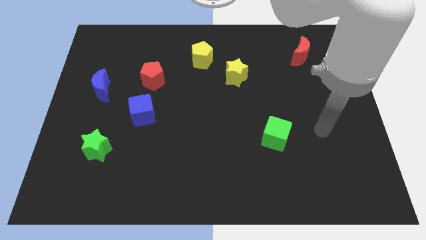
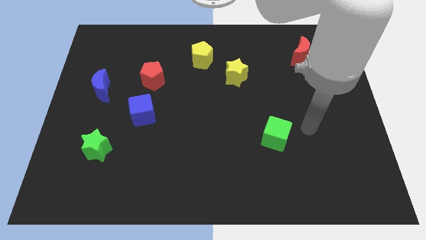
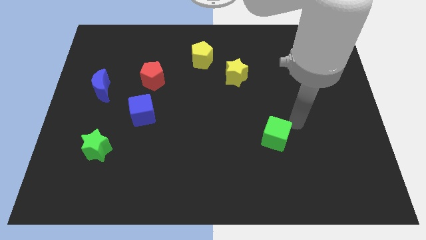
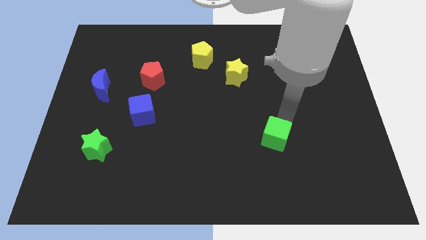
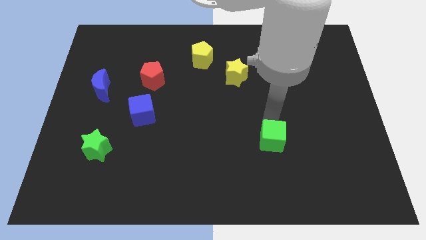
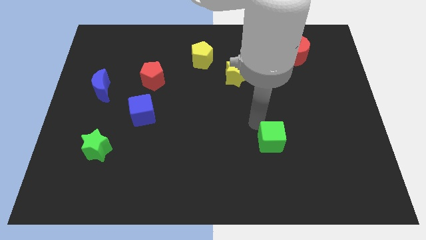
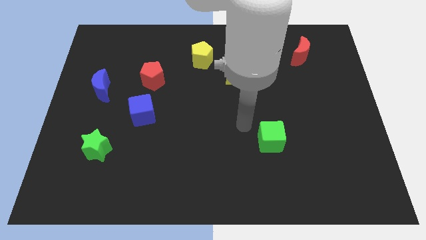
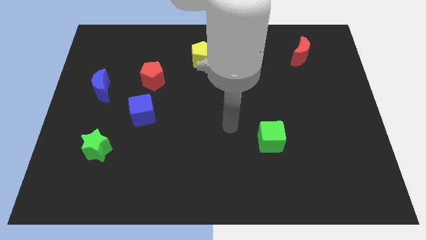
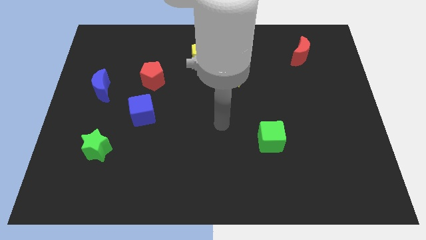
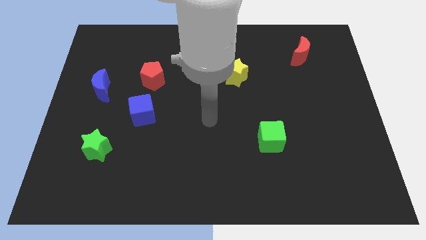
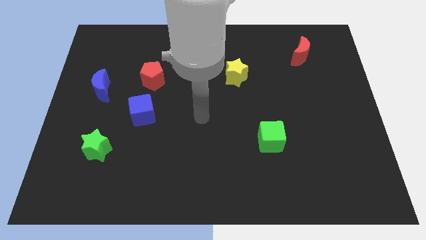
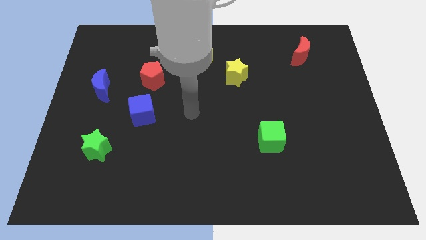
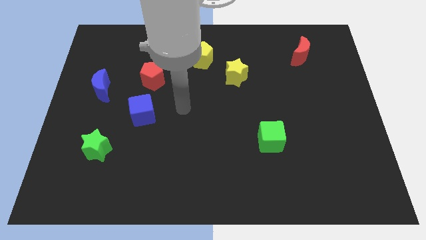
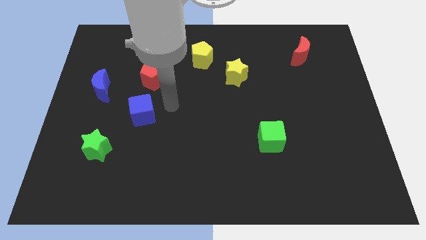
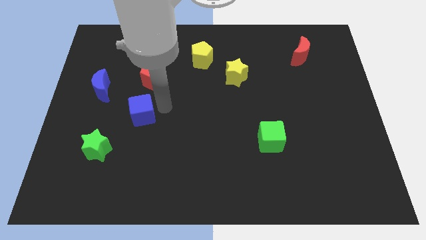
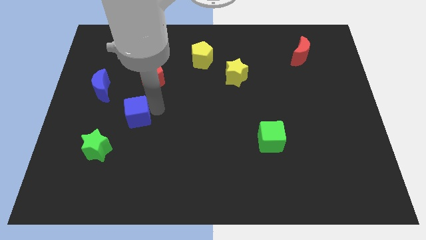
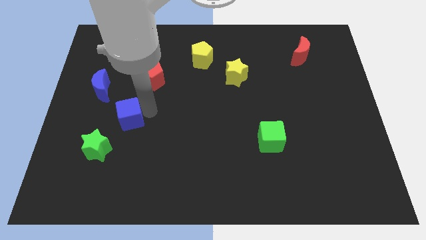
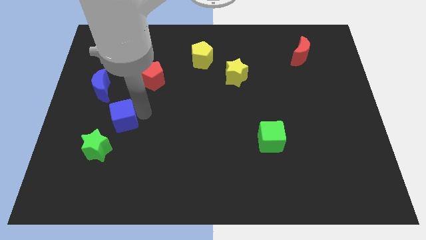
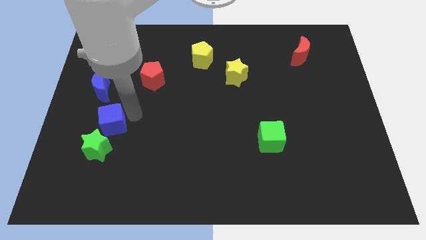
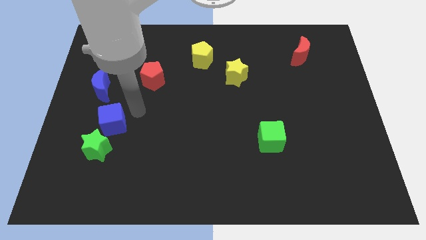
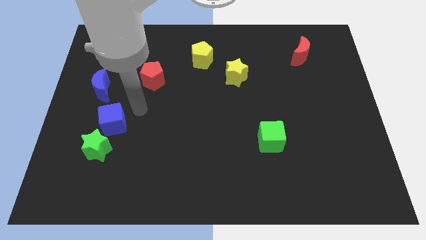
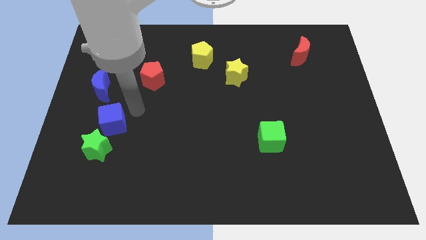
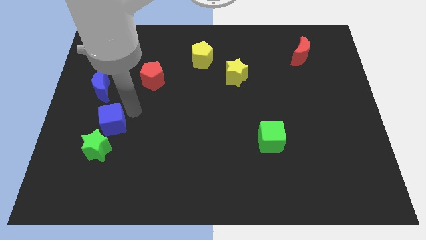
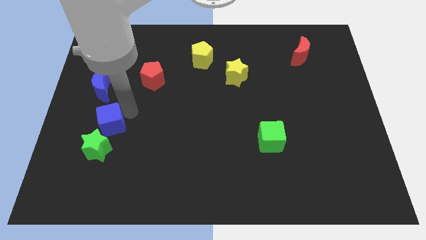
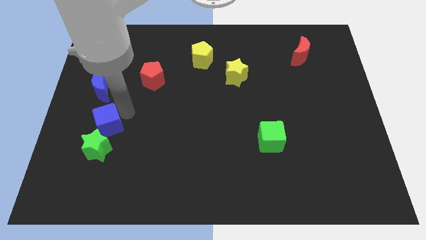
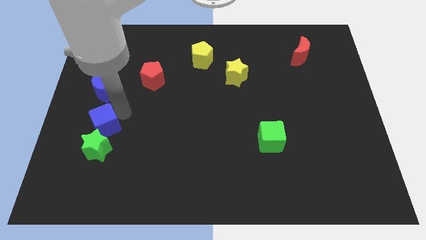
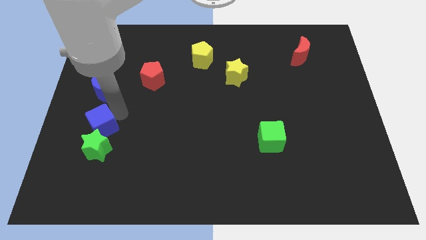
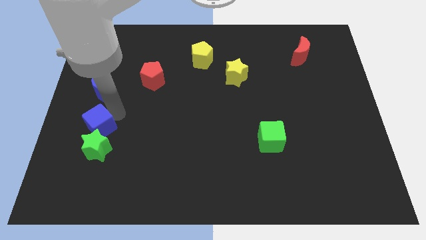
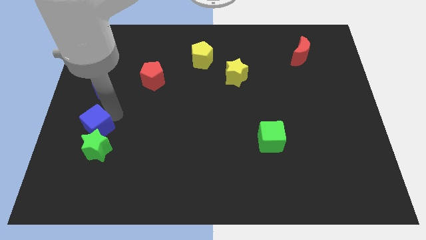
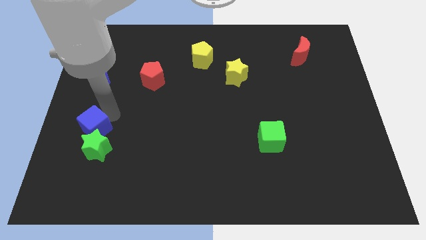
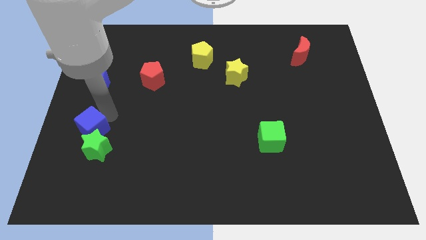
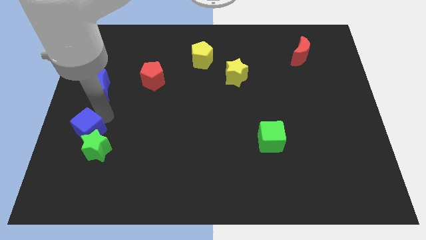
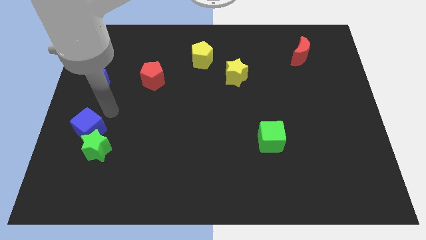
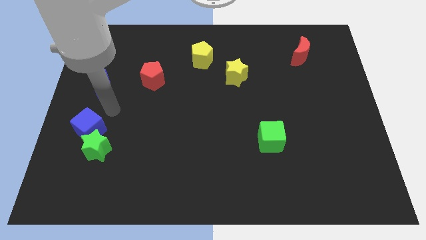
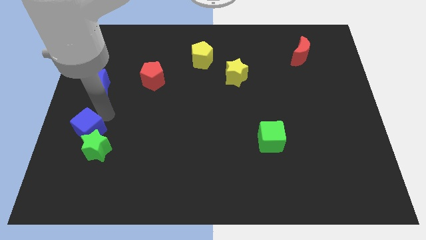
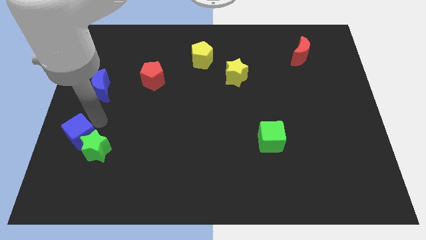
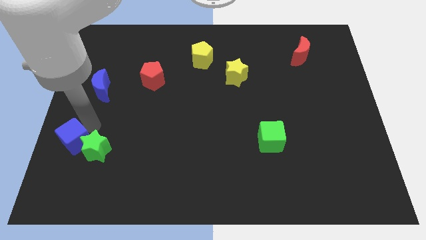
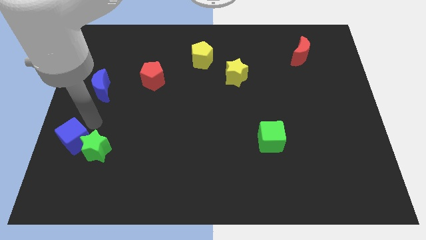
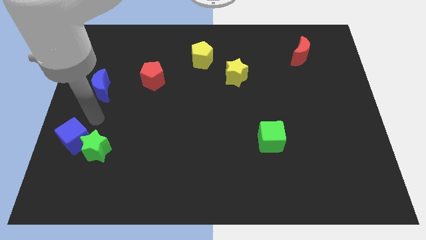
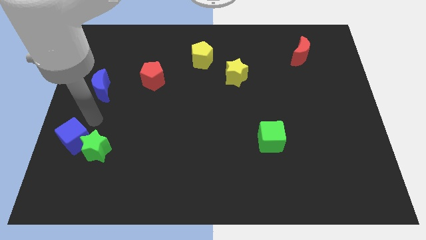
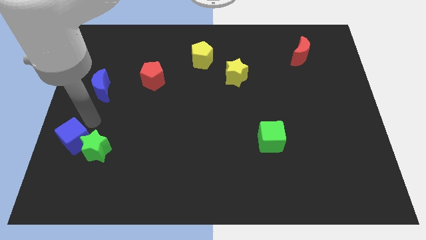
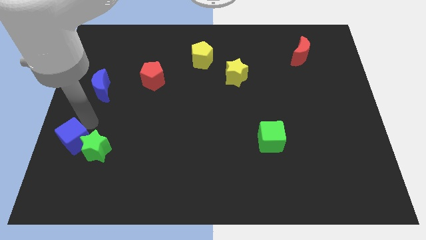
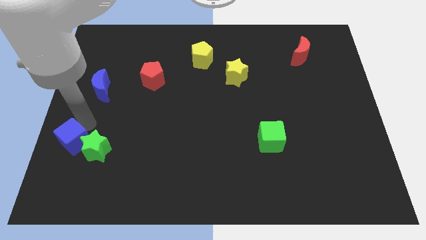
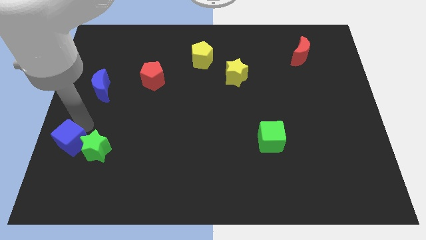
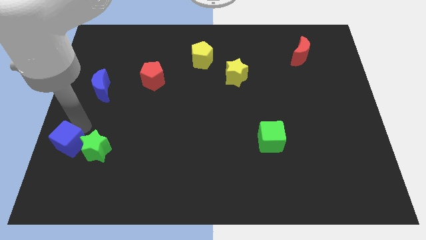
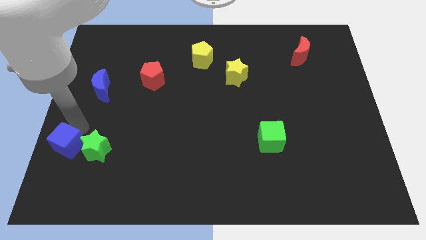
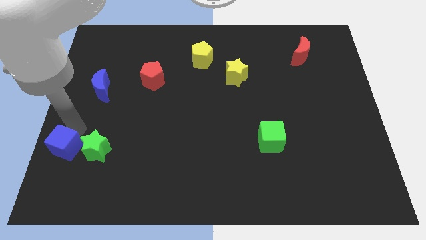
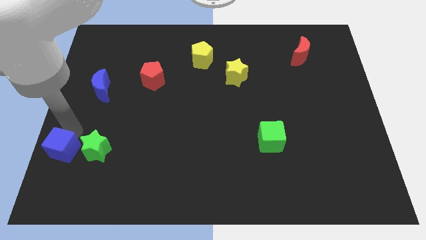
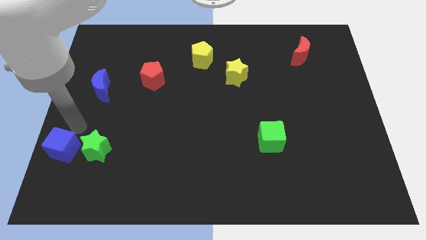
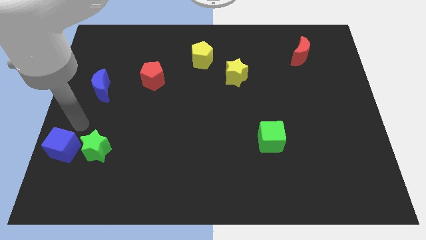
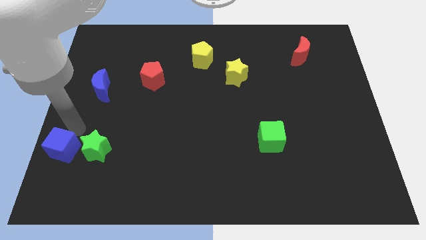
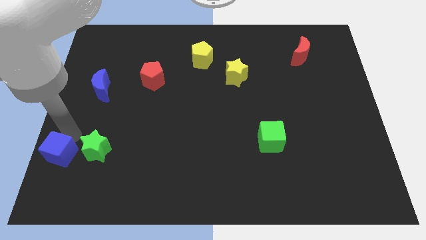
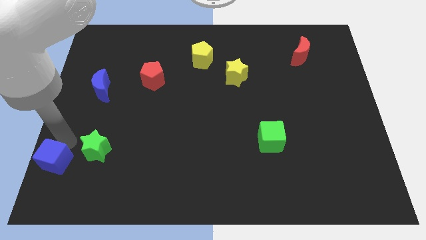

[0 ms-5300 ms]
slide the blue cube to the bottom left corner
